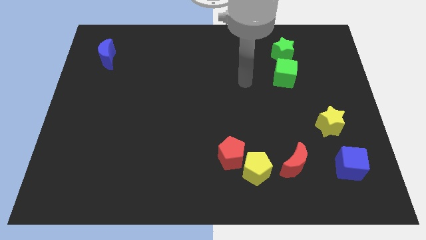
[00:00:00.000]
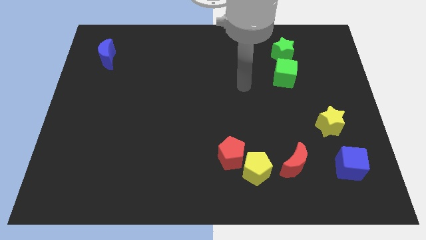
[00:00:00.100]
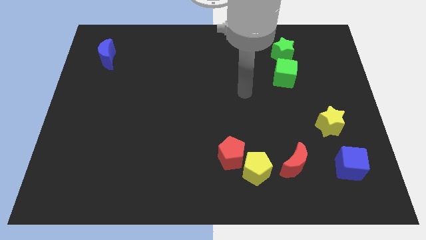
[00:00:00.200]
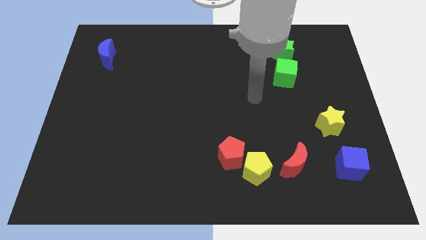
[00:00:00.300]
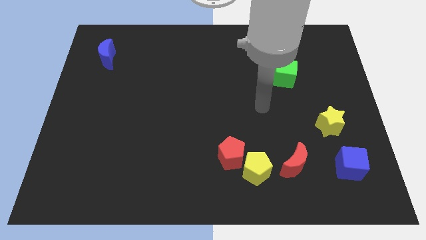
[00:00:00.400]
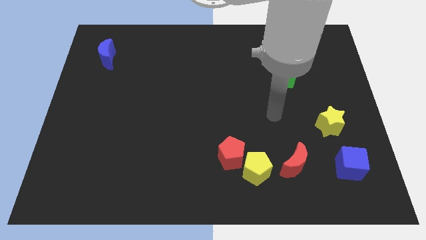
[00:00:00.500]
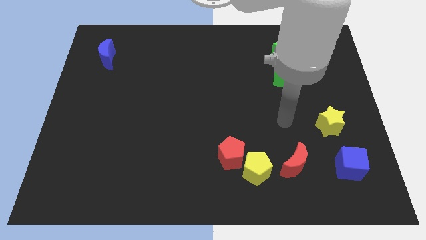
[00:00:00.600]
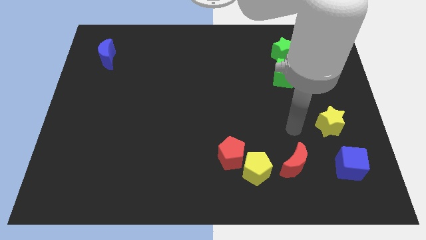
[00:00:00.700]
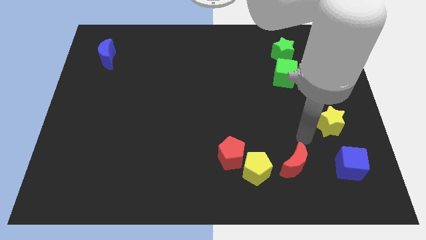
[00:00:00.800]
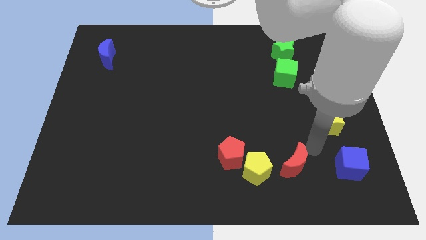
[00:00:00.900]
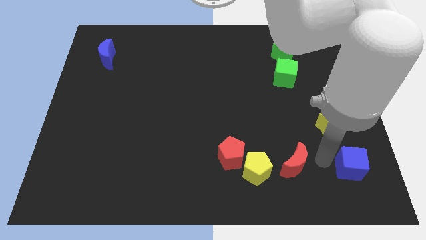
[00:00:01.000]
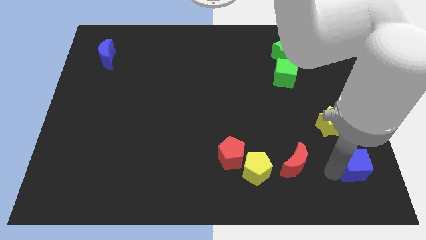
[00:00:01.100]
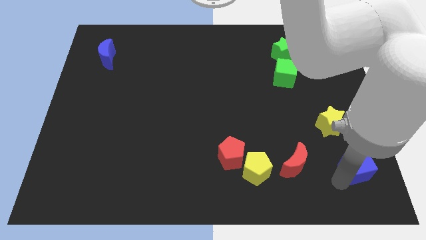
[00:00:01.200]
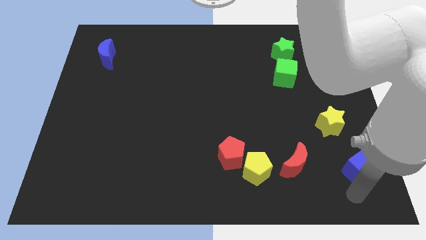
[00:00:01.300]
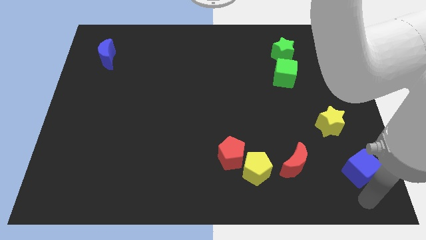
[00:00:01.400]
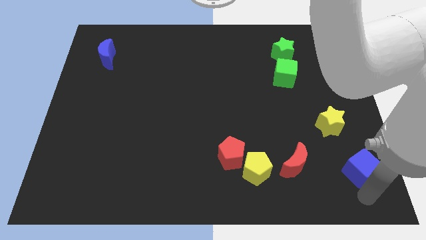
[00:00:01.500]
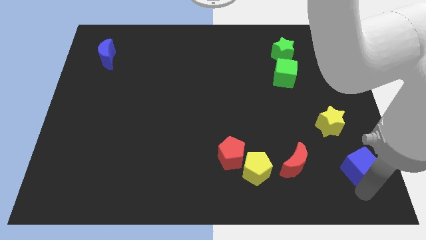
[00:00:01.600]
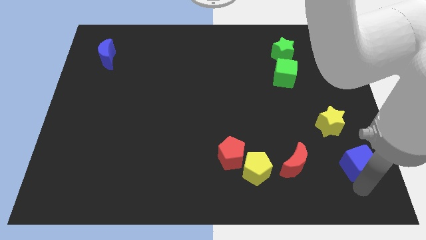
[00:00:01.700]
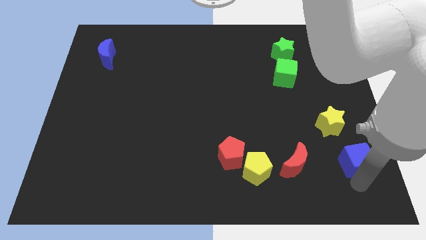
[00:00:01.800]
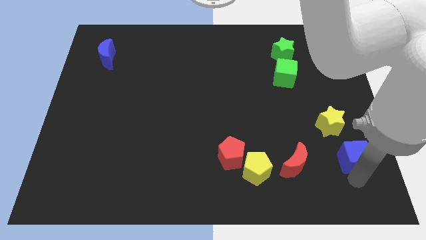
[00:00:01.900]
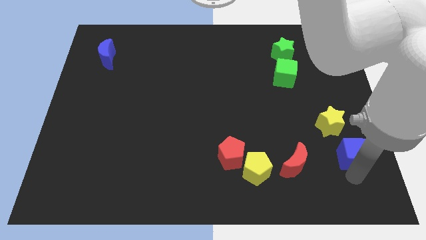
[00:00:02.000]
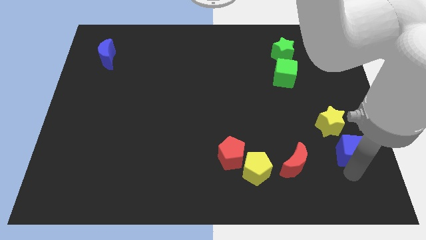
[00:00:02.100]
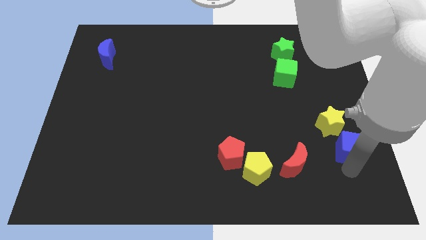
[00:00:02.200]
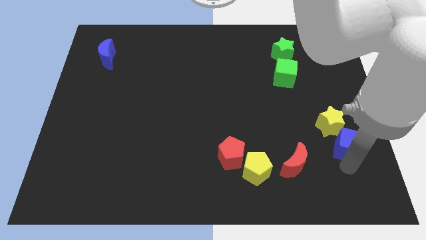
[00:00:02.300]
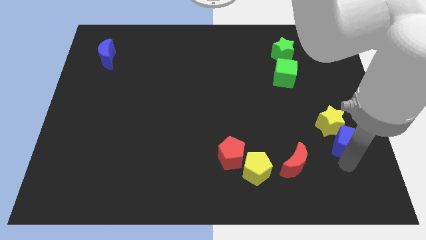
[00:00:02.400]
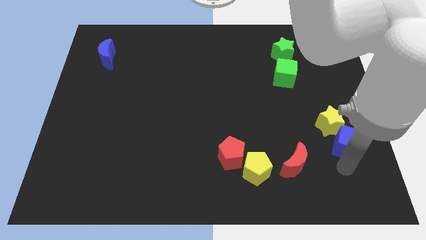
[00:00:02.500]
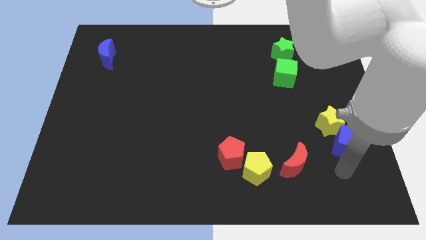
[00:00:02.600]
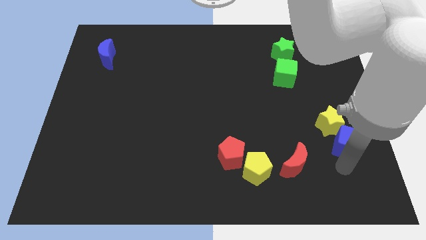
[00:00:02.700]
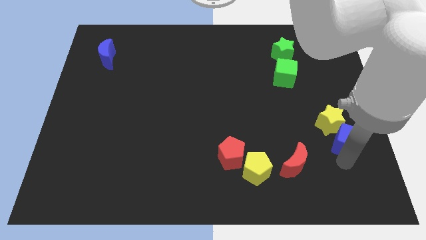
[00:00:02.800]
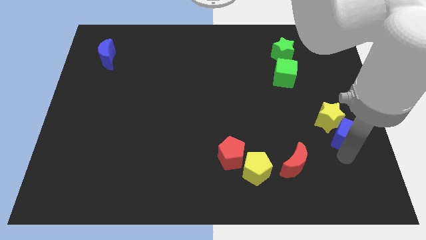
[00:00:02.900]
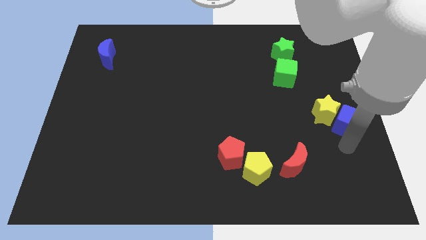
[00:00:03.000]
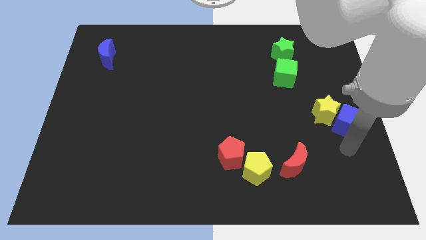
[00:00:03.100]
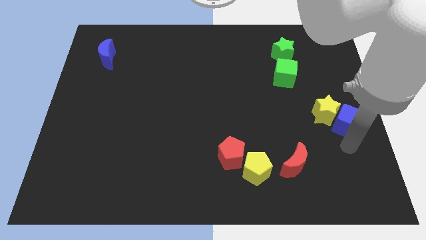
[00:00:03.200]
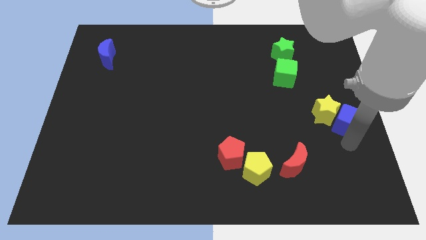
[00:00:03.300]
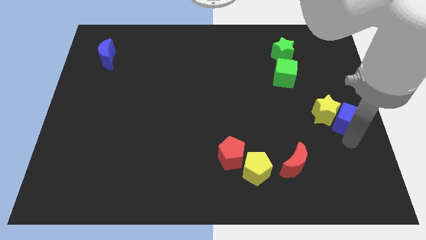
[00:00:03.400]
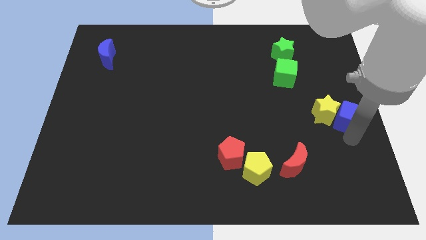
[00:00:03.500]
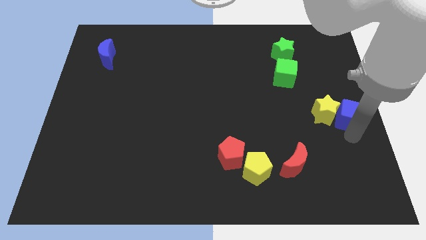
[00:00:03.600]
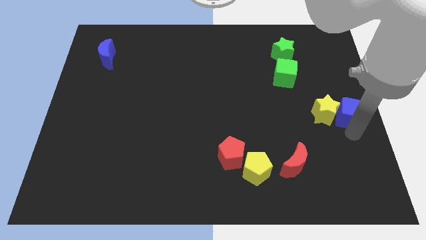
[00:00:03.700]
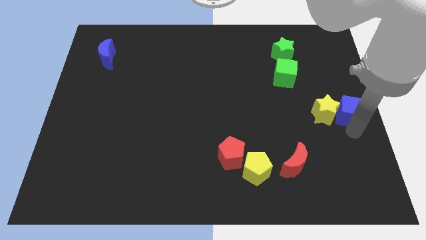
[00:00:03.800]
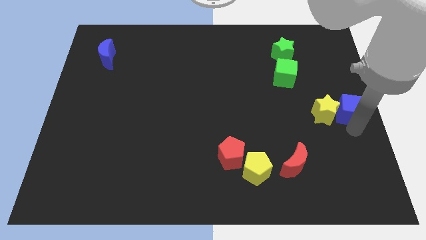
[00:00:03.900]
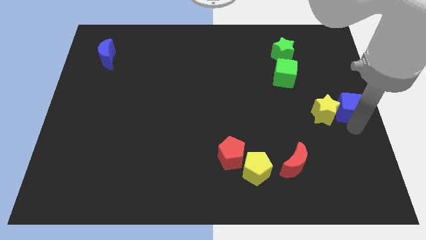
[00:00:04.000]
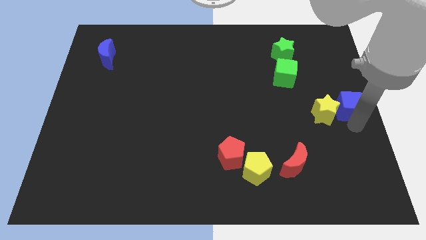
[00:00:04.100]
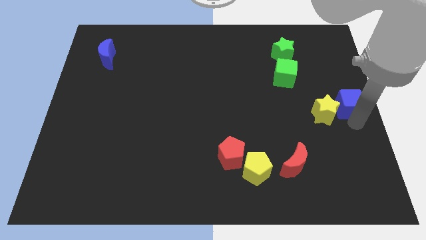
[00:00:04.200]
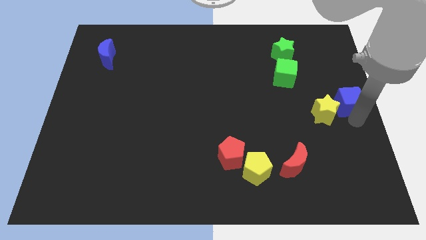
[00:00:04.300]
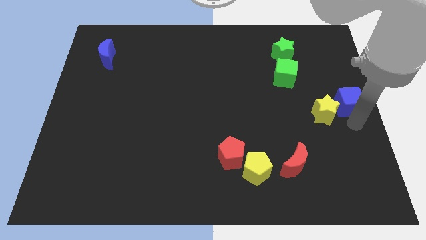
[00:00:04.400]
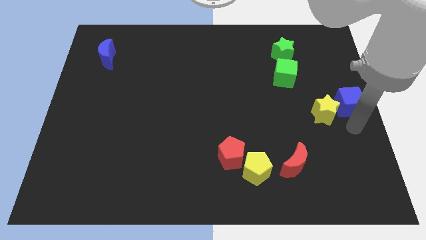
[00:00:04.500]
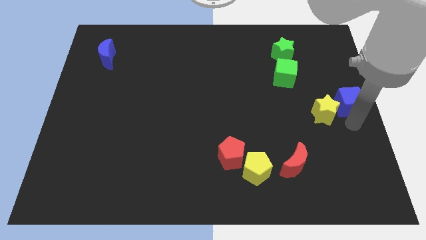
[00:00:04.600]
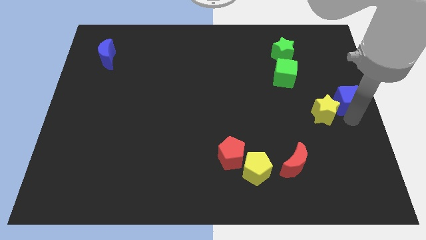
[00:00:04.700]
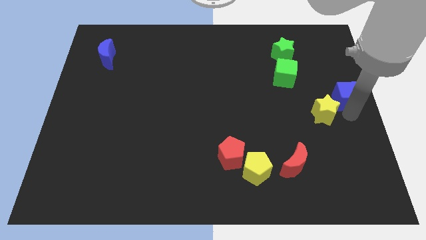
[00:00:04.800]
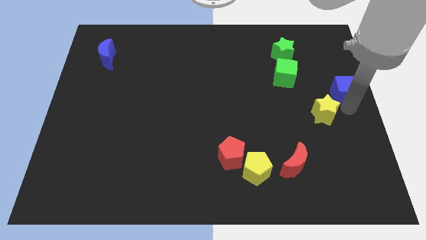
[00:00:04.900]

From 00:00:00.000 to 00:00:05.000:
push the blue cube upwards

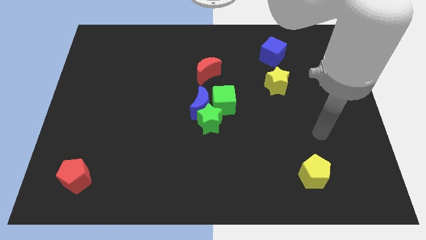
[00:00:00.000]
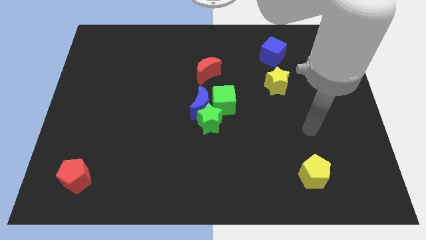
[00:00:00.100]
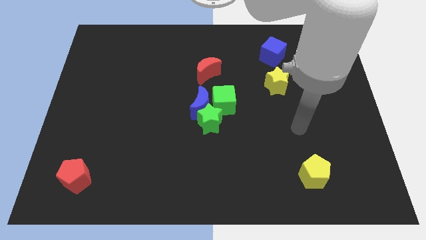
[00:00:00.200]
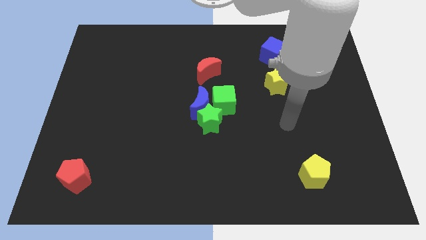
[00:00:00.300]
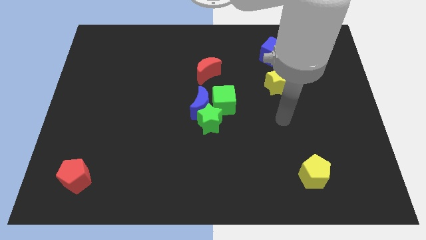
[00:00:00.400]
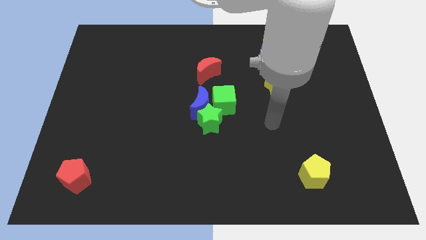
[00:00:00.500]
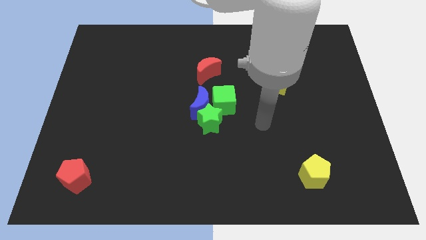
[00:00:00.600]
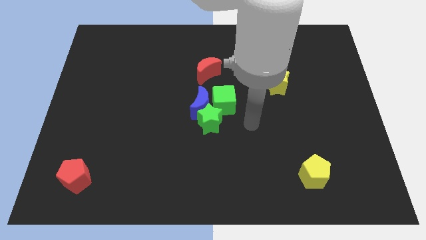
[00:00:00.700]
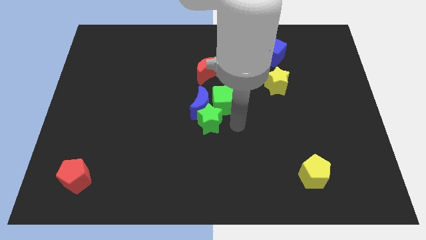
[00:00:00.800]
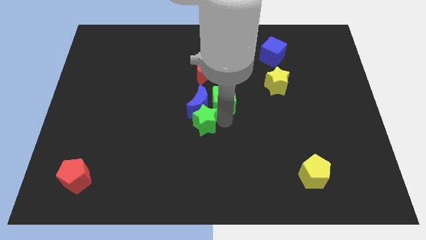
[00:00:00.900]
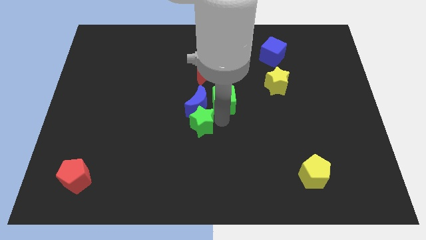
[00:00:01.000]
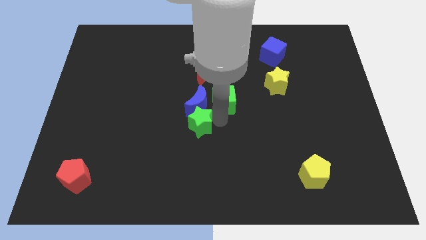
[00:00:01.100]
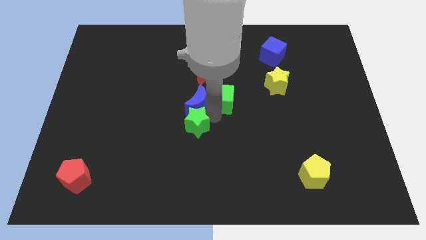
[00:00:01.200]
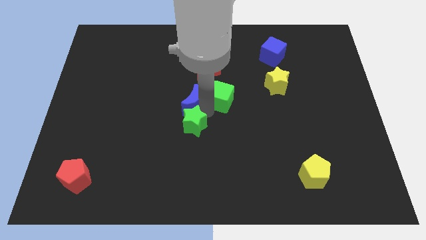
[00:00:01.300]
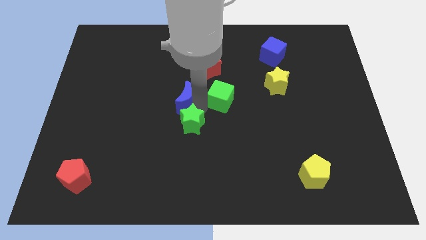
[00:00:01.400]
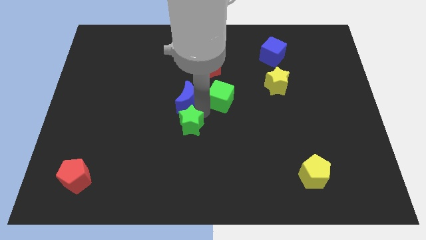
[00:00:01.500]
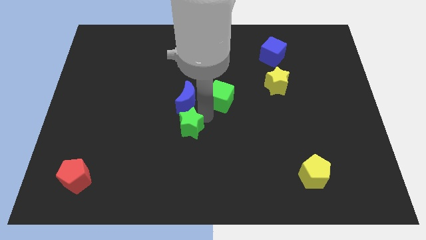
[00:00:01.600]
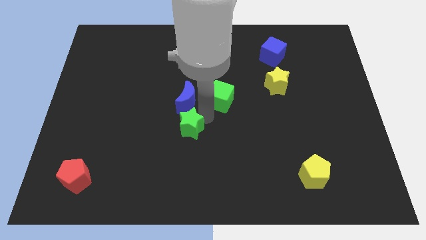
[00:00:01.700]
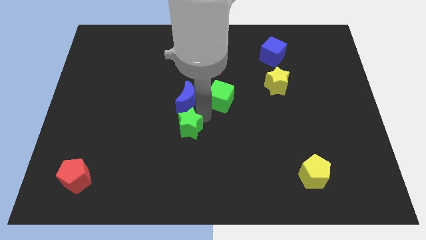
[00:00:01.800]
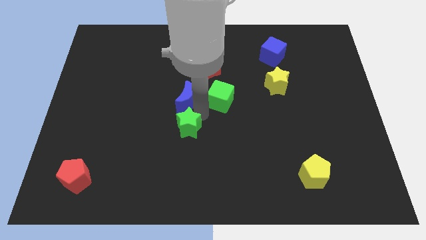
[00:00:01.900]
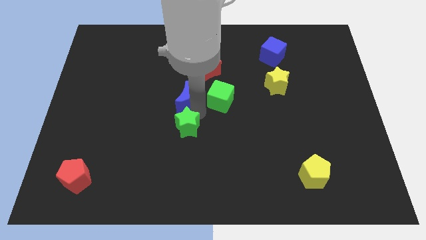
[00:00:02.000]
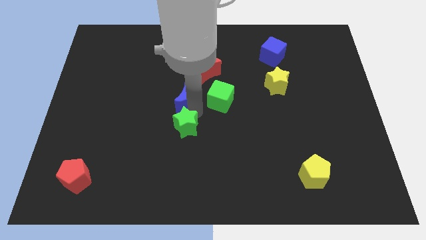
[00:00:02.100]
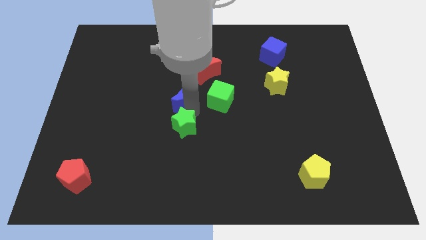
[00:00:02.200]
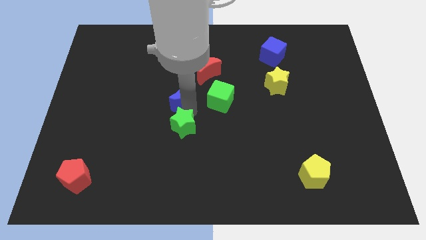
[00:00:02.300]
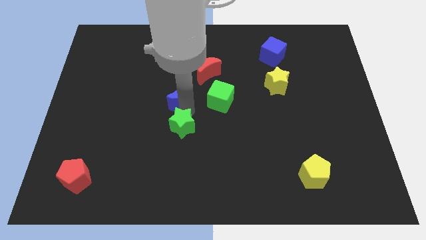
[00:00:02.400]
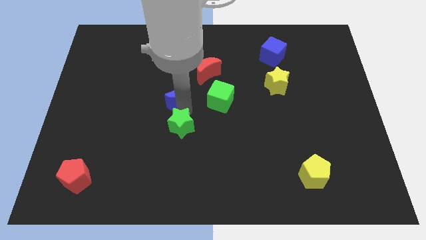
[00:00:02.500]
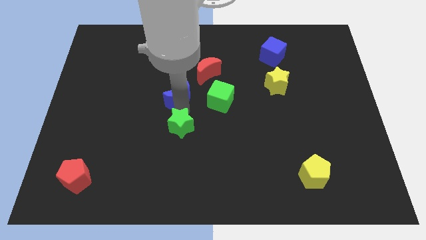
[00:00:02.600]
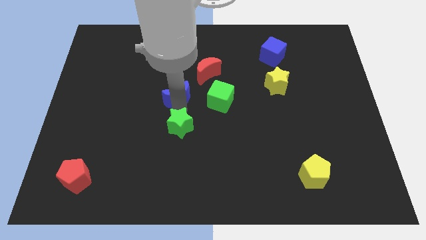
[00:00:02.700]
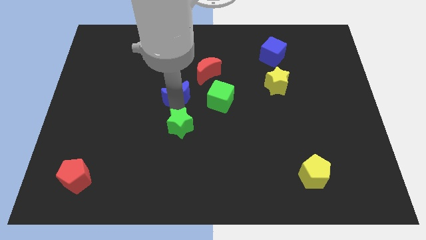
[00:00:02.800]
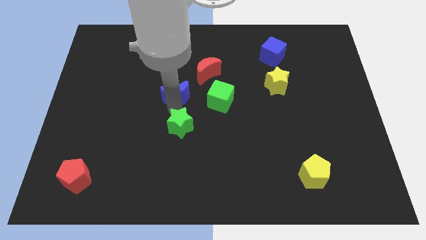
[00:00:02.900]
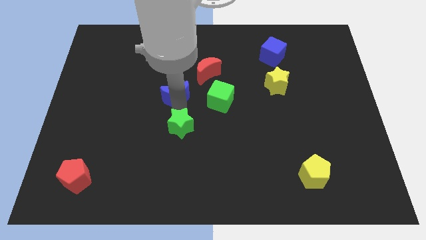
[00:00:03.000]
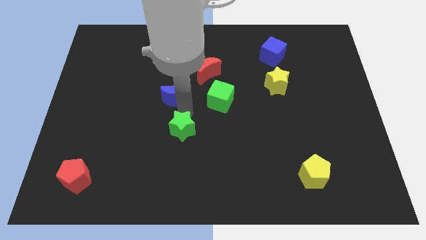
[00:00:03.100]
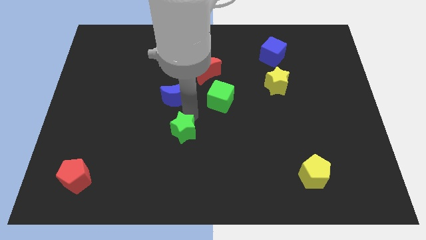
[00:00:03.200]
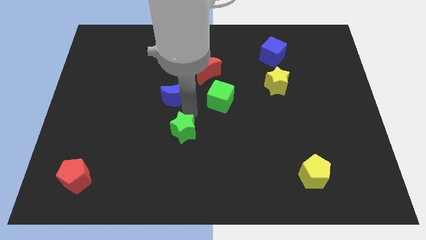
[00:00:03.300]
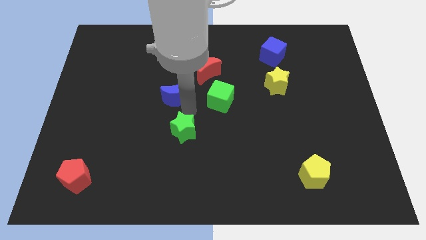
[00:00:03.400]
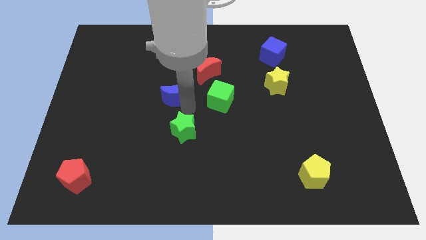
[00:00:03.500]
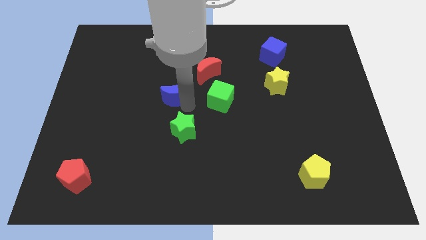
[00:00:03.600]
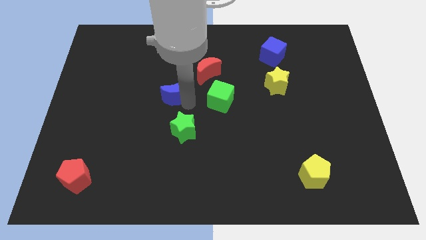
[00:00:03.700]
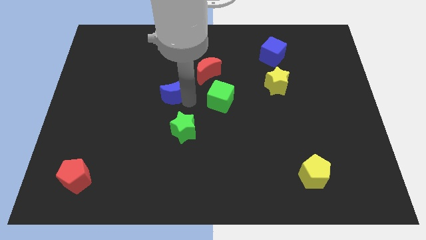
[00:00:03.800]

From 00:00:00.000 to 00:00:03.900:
push the blue moon somewhat diagonally upwards and to the left
